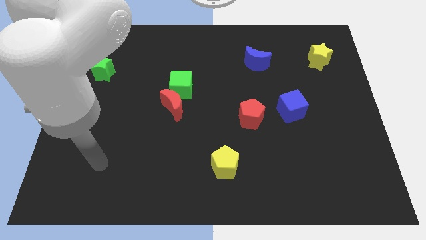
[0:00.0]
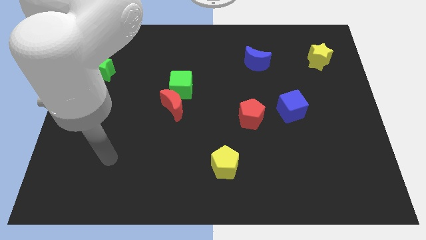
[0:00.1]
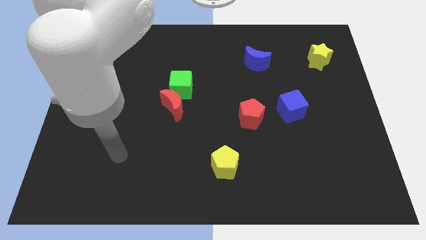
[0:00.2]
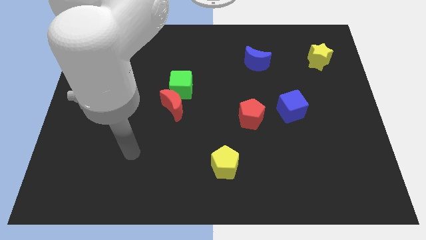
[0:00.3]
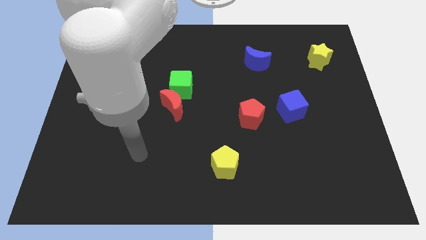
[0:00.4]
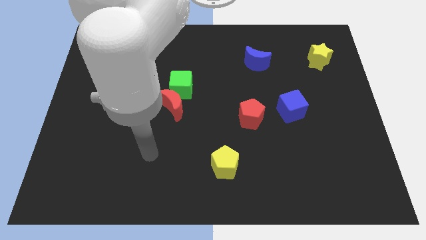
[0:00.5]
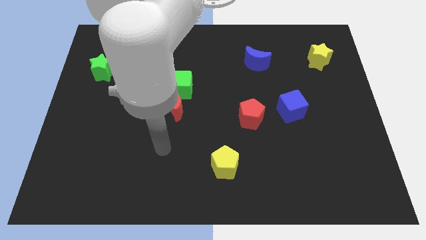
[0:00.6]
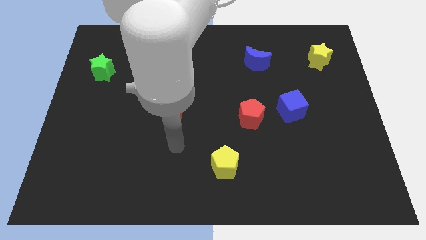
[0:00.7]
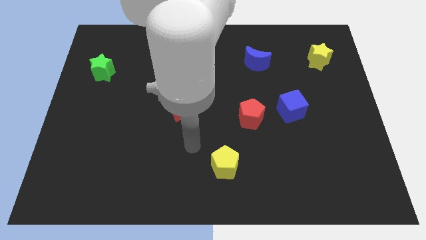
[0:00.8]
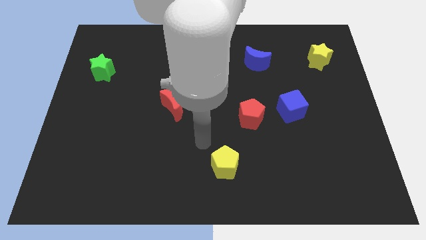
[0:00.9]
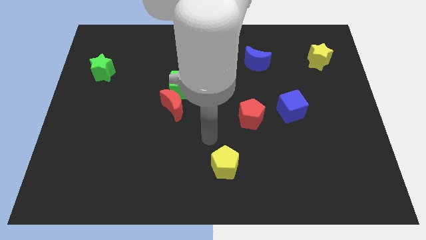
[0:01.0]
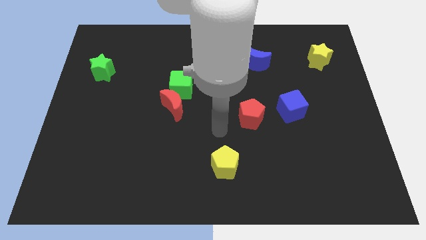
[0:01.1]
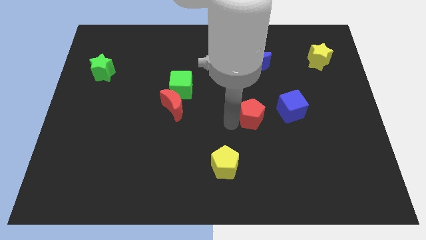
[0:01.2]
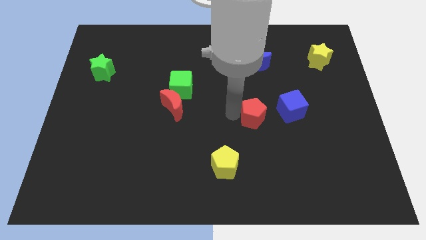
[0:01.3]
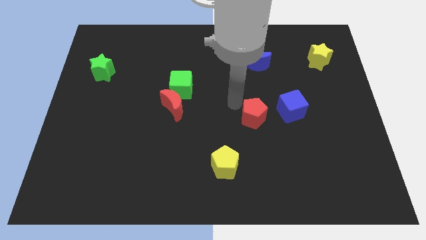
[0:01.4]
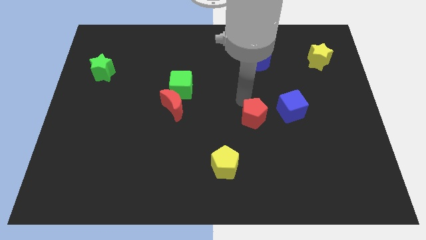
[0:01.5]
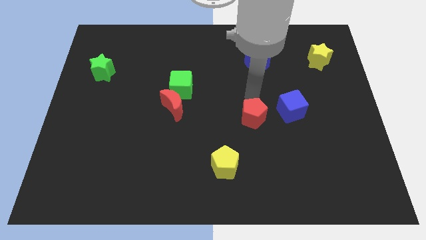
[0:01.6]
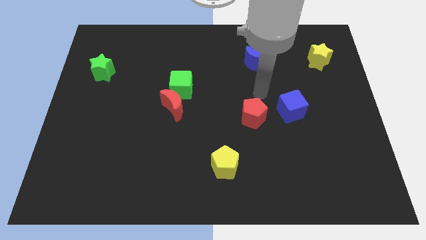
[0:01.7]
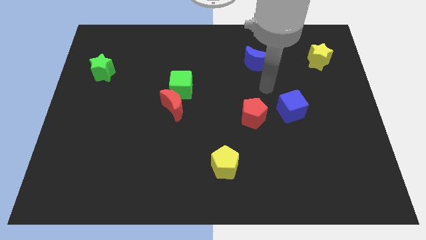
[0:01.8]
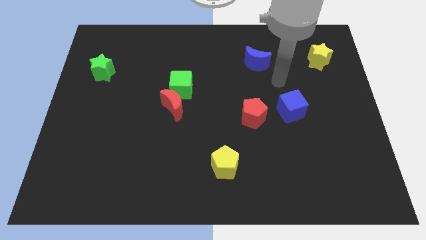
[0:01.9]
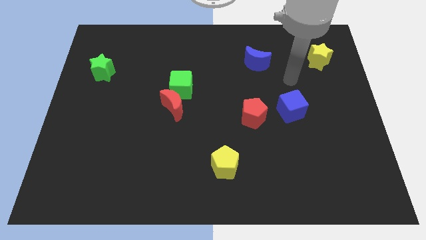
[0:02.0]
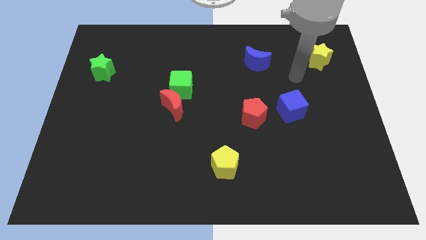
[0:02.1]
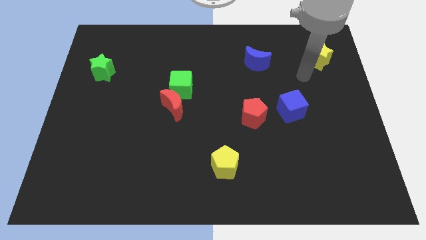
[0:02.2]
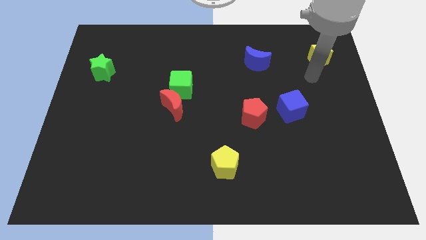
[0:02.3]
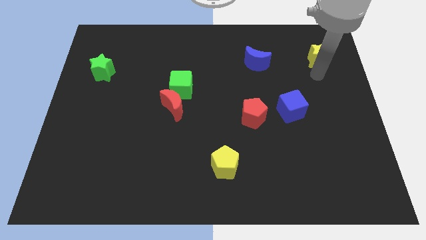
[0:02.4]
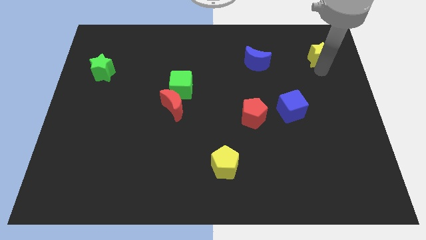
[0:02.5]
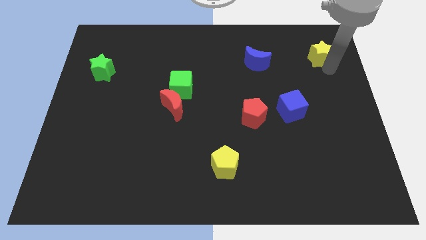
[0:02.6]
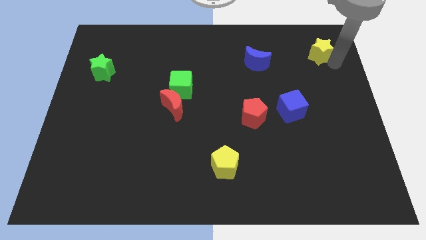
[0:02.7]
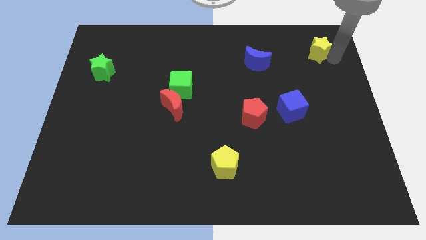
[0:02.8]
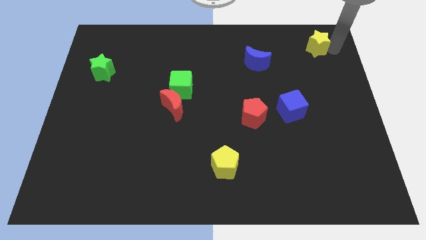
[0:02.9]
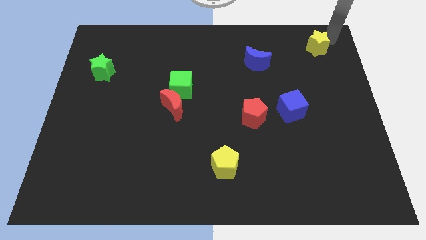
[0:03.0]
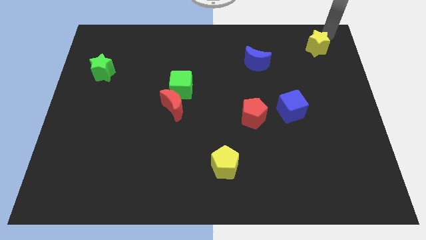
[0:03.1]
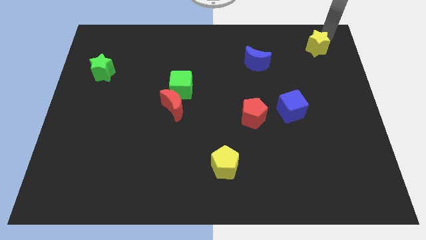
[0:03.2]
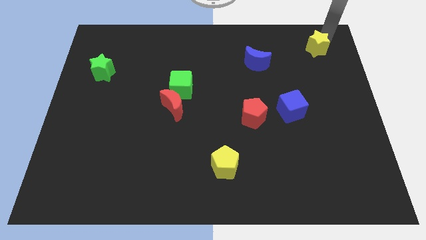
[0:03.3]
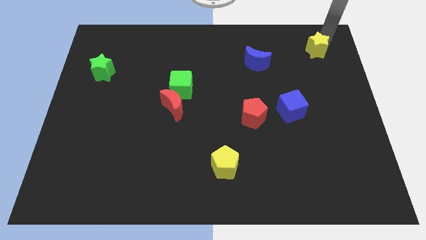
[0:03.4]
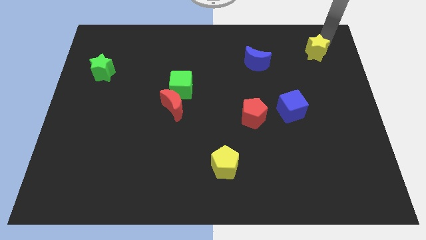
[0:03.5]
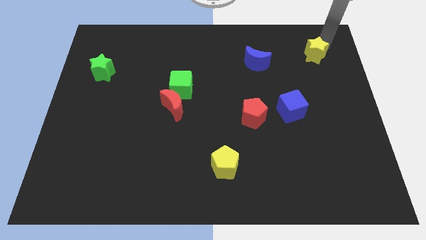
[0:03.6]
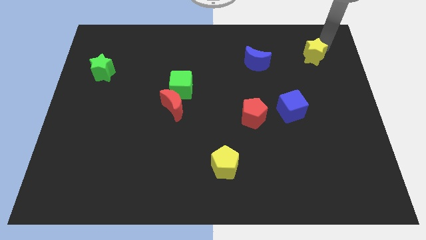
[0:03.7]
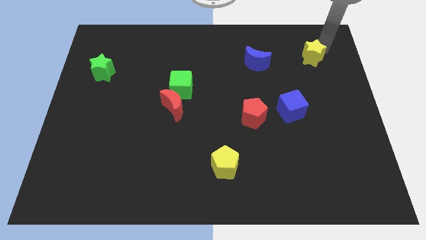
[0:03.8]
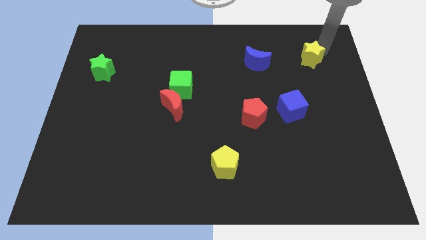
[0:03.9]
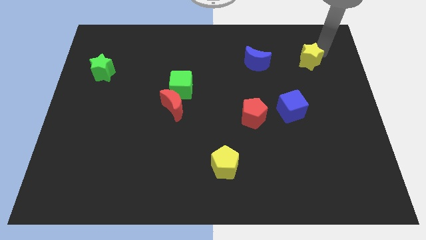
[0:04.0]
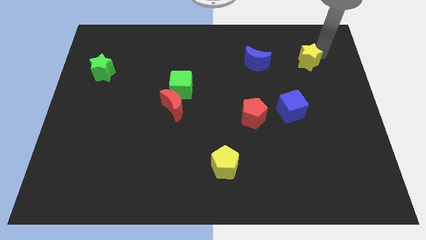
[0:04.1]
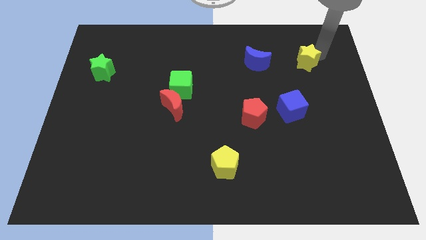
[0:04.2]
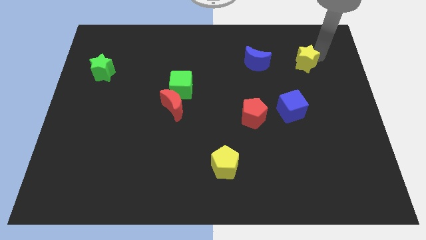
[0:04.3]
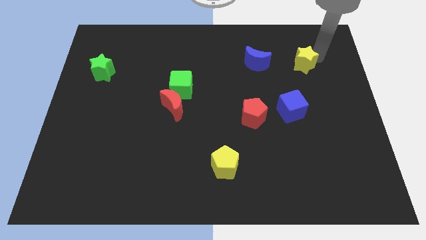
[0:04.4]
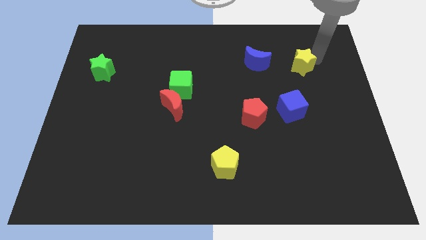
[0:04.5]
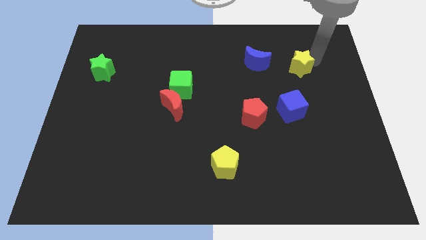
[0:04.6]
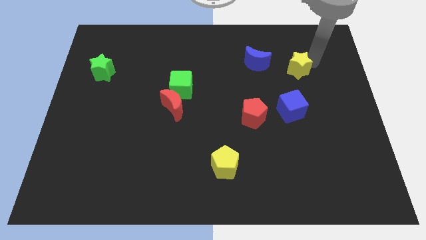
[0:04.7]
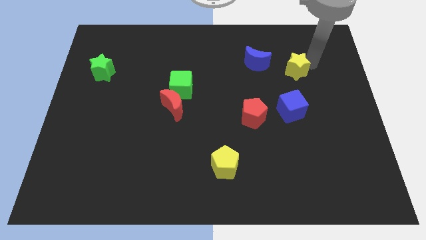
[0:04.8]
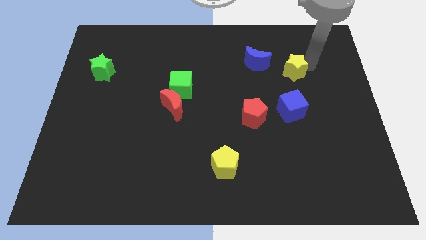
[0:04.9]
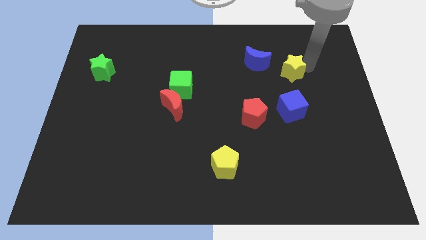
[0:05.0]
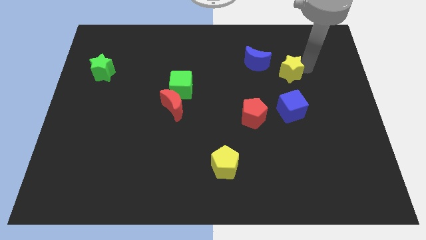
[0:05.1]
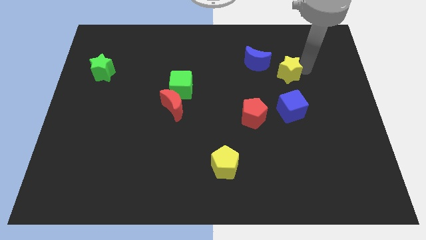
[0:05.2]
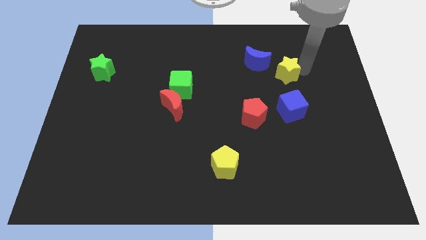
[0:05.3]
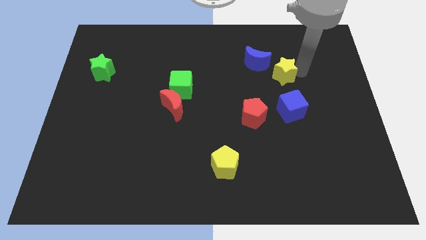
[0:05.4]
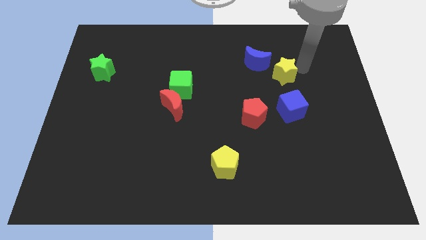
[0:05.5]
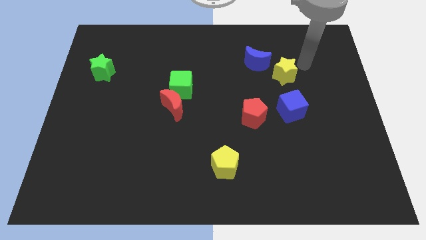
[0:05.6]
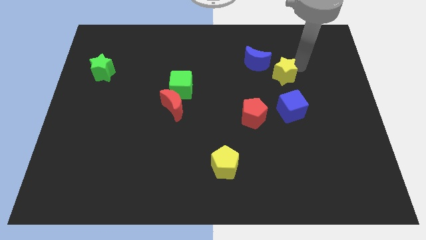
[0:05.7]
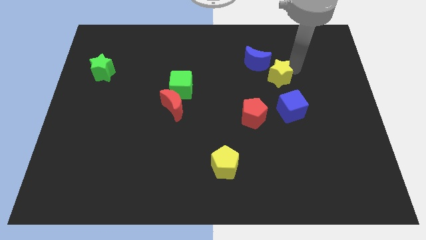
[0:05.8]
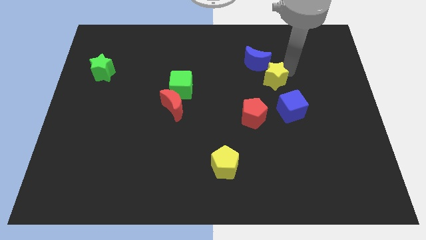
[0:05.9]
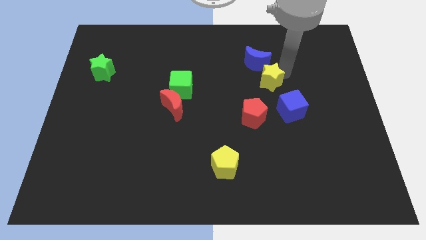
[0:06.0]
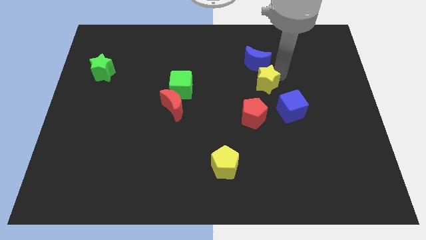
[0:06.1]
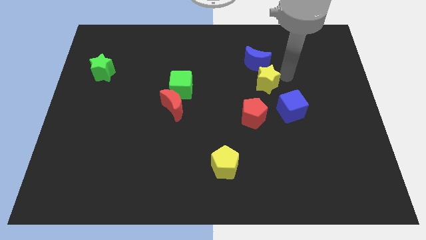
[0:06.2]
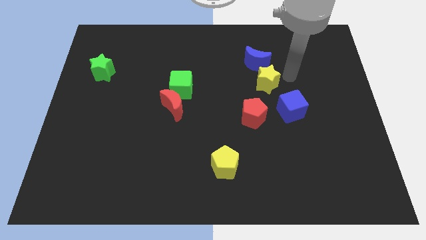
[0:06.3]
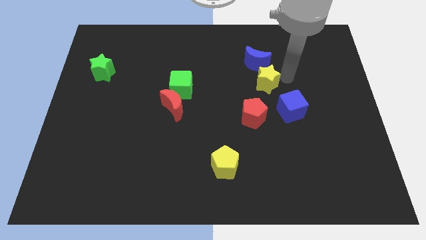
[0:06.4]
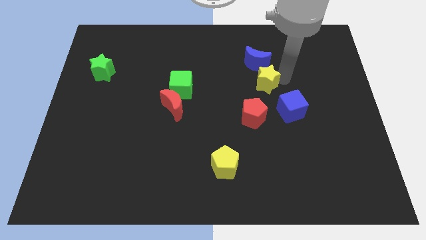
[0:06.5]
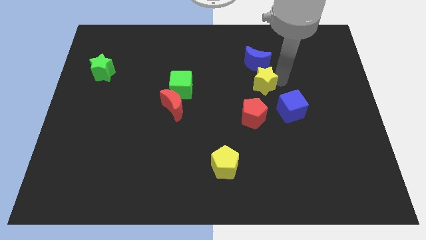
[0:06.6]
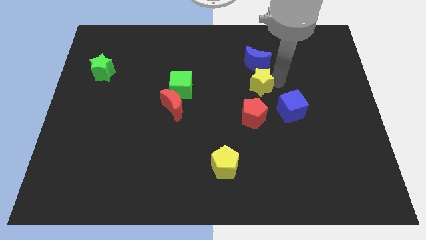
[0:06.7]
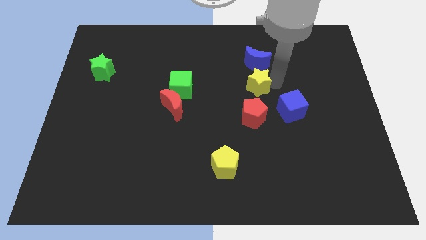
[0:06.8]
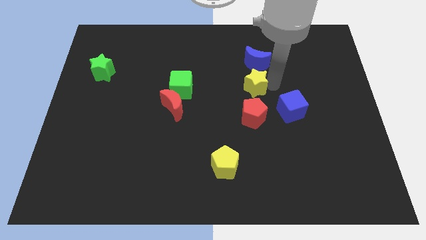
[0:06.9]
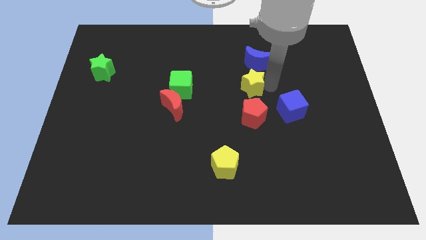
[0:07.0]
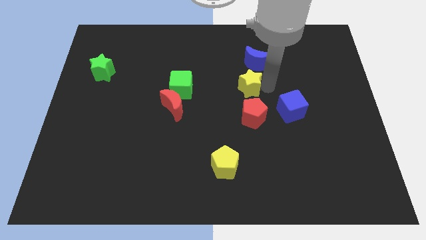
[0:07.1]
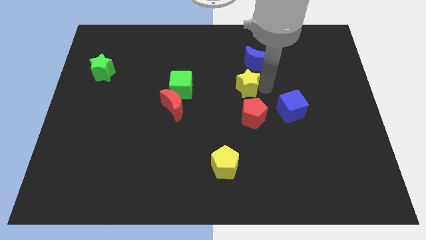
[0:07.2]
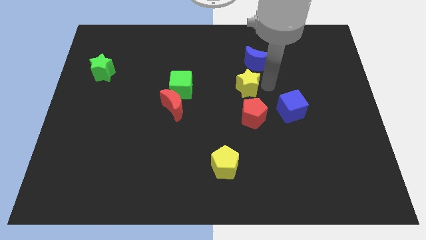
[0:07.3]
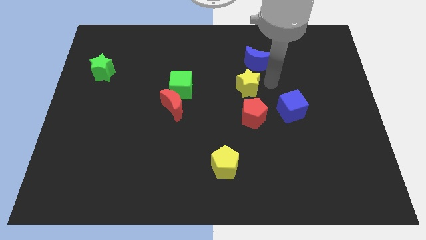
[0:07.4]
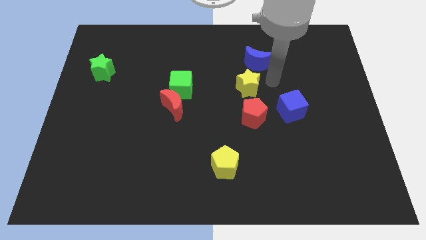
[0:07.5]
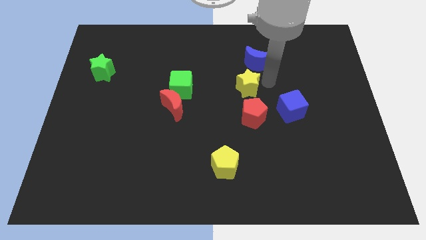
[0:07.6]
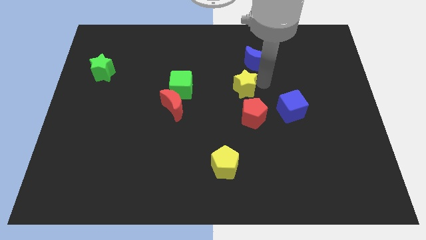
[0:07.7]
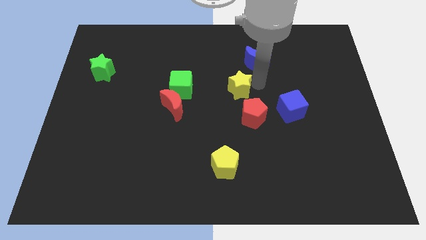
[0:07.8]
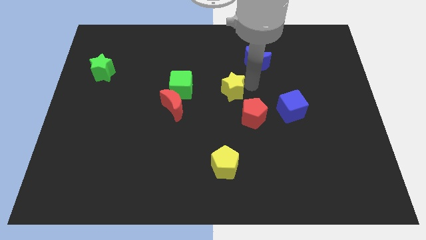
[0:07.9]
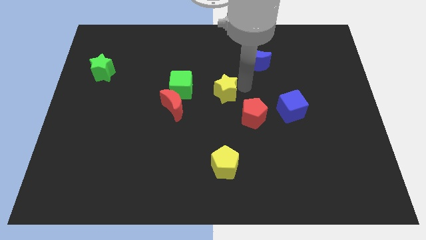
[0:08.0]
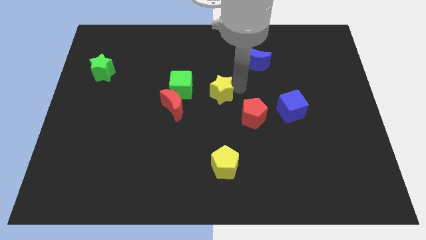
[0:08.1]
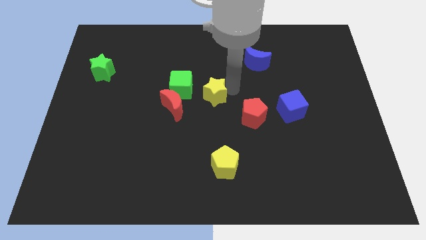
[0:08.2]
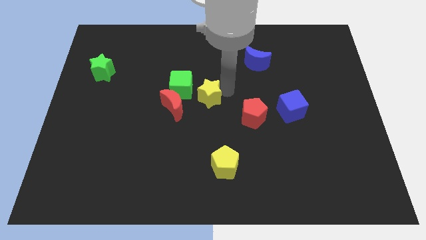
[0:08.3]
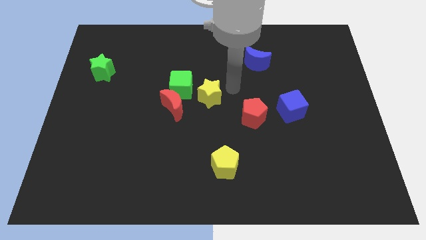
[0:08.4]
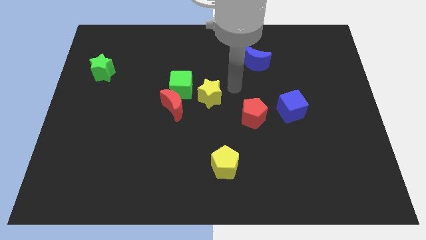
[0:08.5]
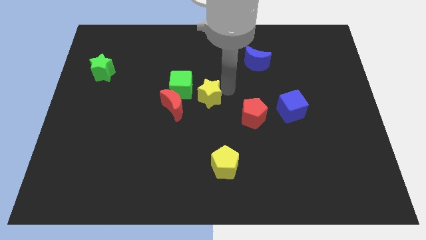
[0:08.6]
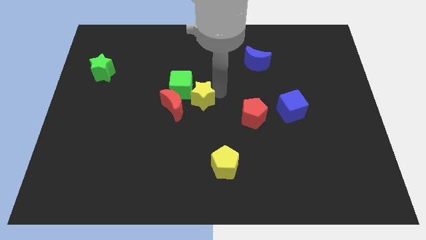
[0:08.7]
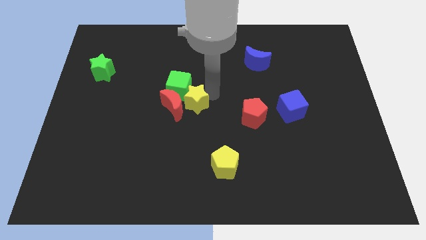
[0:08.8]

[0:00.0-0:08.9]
slide the yellow star next to the red moon
